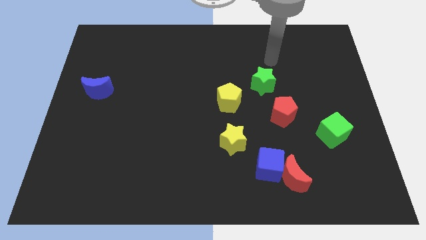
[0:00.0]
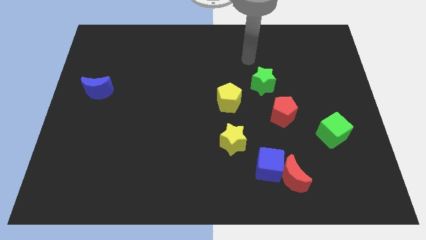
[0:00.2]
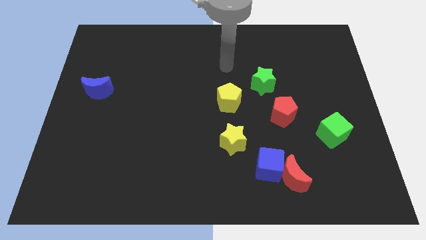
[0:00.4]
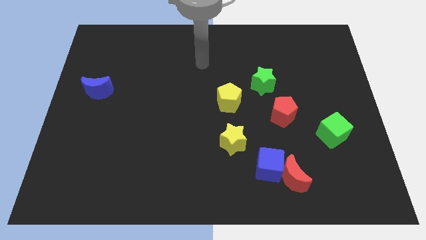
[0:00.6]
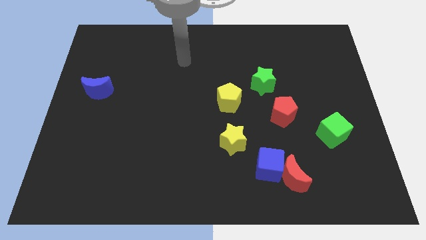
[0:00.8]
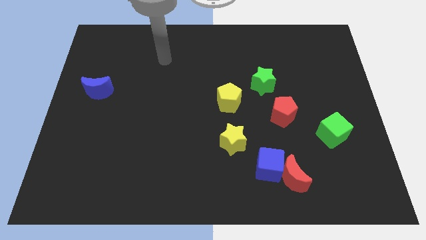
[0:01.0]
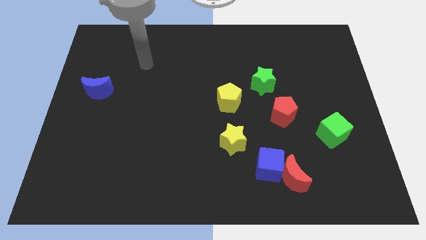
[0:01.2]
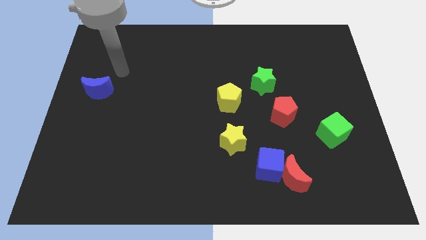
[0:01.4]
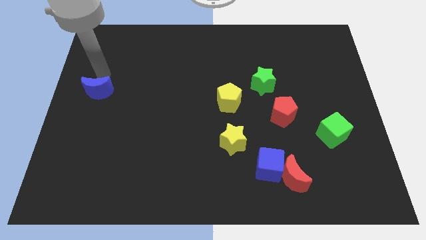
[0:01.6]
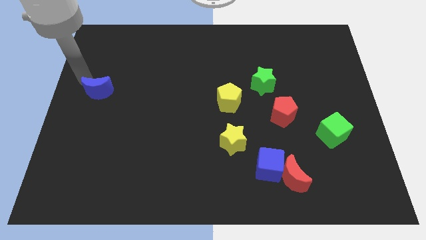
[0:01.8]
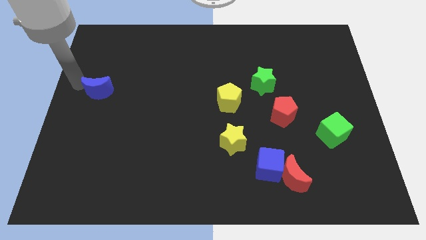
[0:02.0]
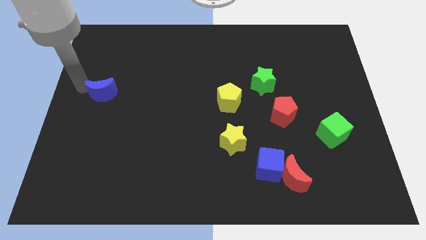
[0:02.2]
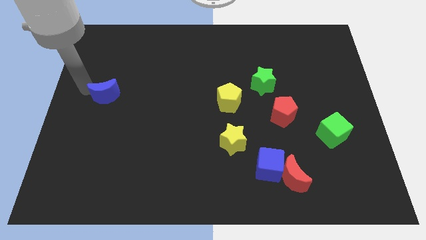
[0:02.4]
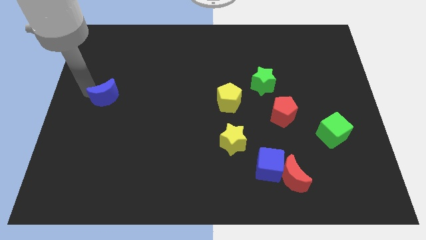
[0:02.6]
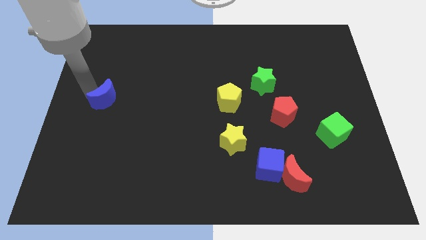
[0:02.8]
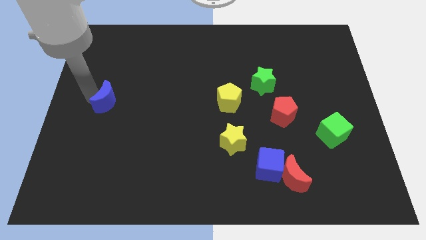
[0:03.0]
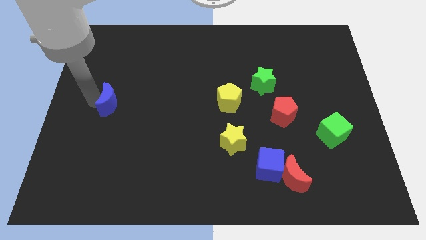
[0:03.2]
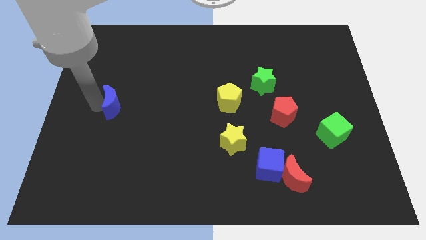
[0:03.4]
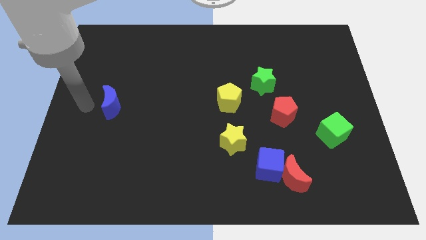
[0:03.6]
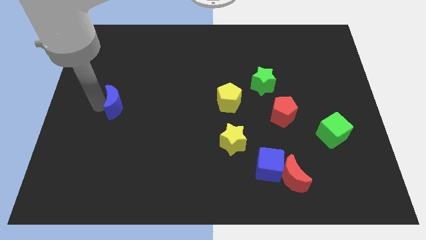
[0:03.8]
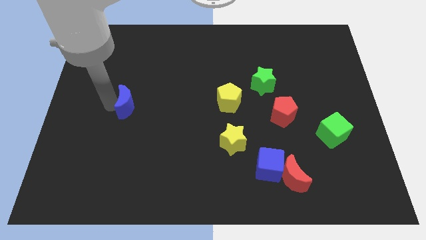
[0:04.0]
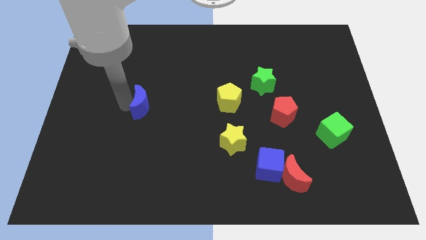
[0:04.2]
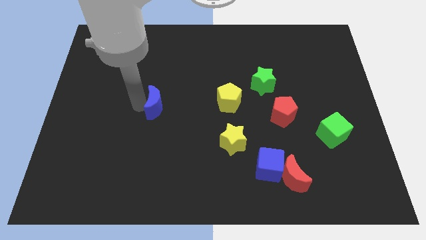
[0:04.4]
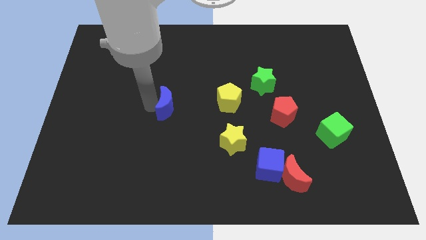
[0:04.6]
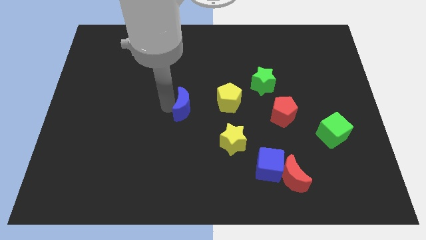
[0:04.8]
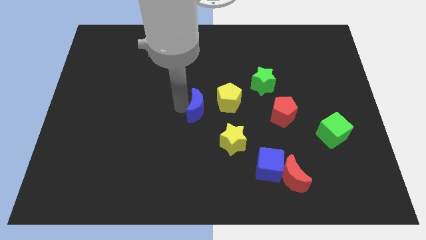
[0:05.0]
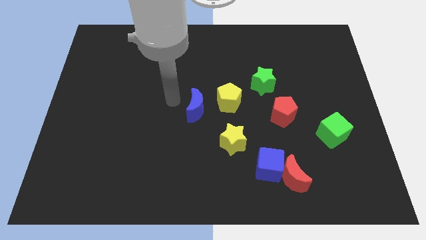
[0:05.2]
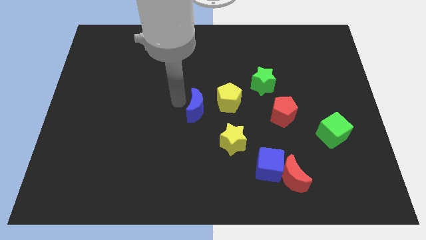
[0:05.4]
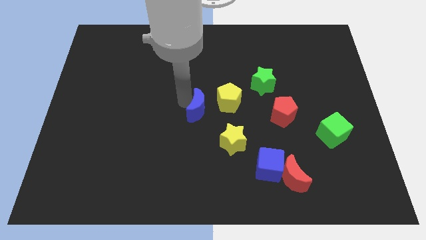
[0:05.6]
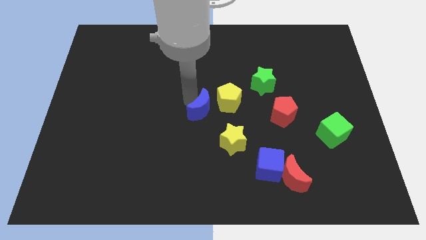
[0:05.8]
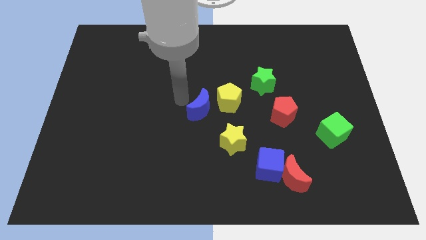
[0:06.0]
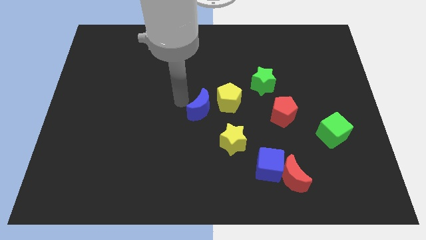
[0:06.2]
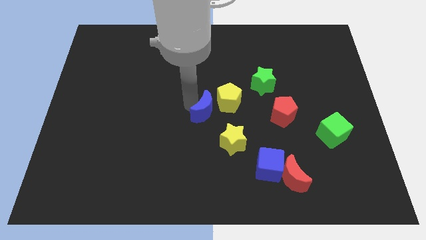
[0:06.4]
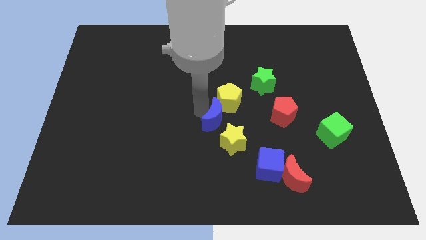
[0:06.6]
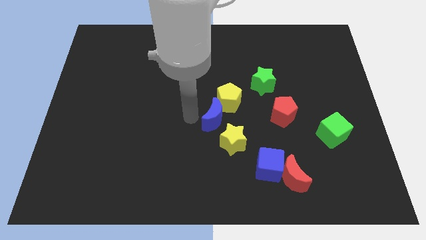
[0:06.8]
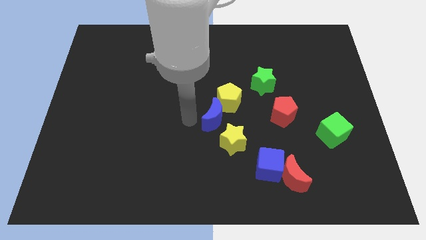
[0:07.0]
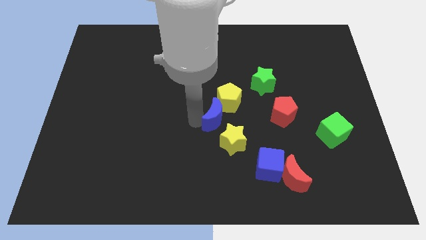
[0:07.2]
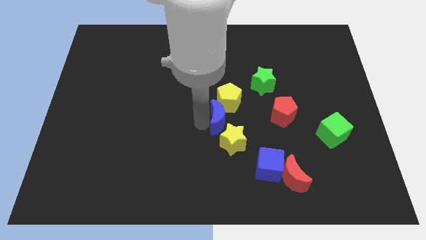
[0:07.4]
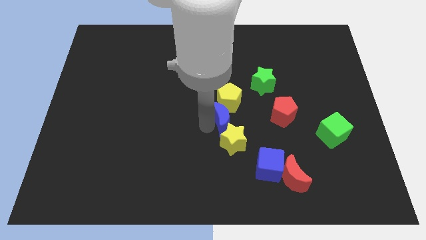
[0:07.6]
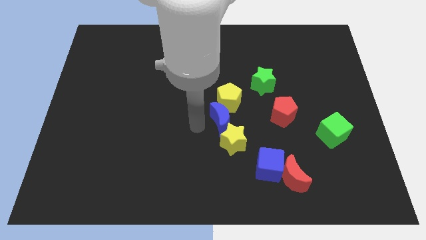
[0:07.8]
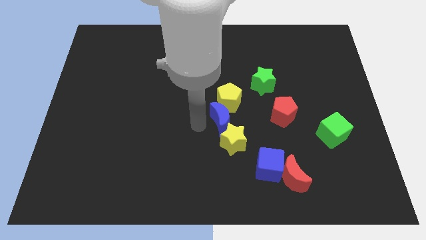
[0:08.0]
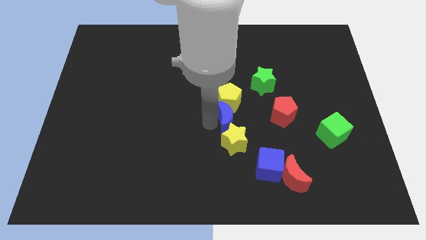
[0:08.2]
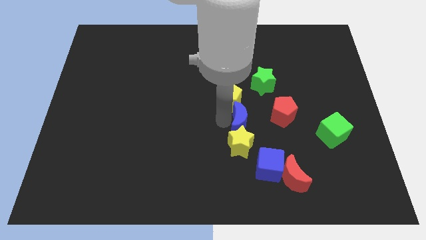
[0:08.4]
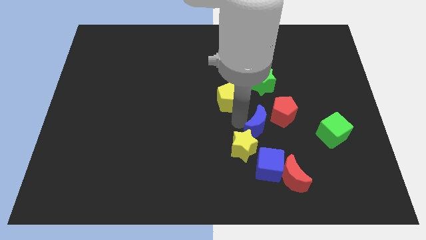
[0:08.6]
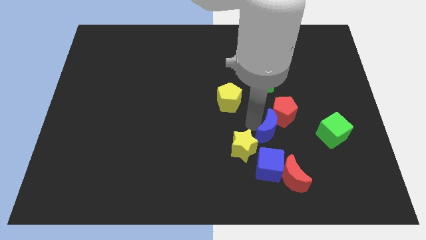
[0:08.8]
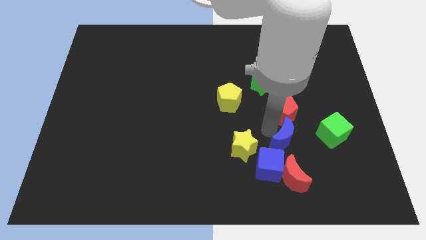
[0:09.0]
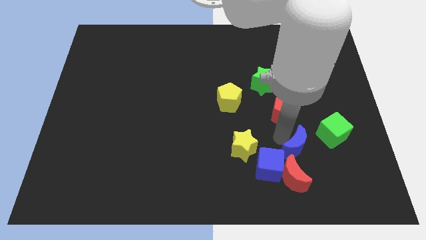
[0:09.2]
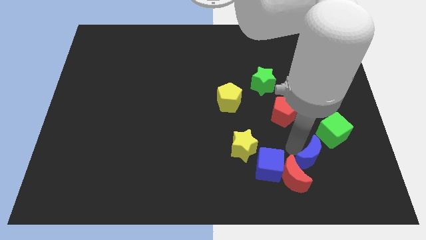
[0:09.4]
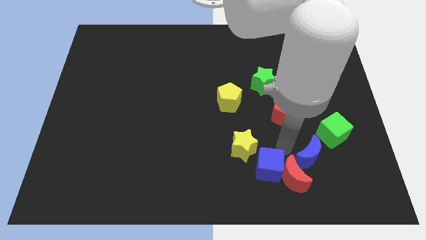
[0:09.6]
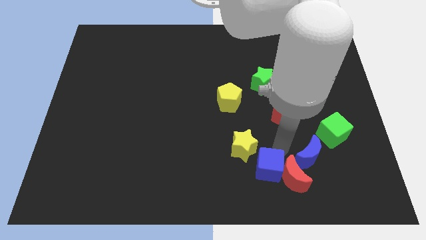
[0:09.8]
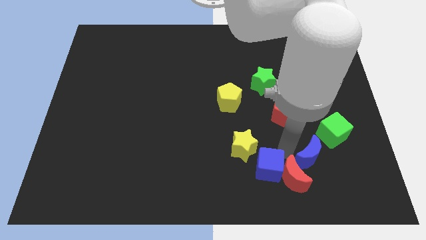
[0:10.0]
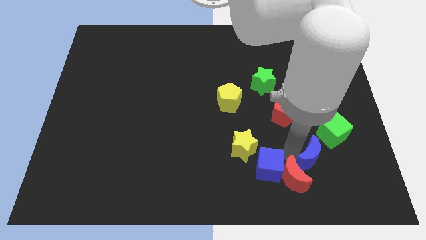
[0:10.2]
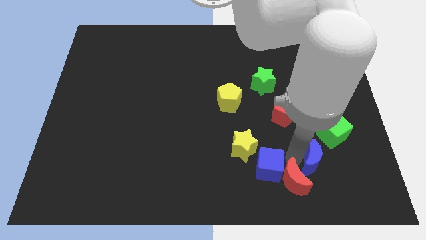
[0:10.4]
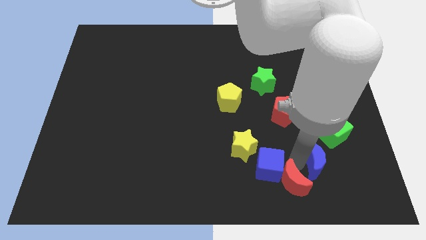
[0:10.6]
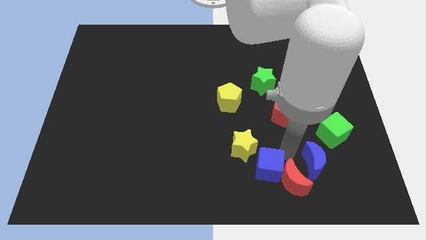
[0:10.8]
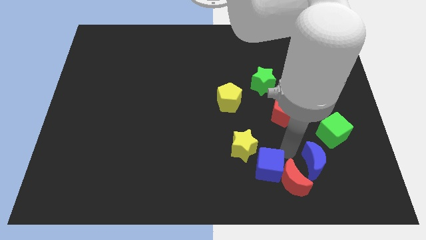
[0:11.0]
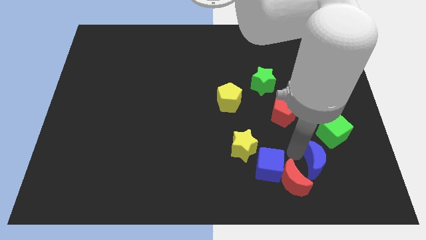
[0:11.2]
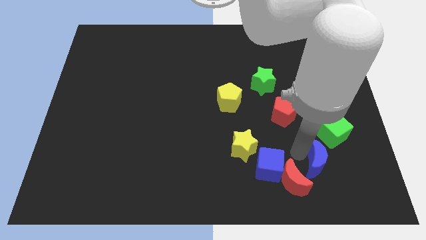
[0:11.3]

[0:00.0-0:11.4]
push the blue moon to the bottom side of the green cube

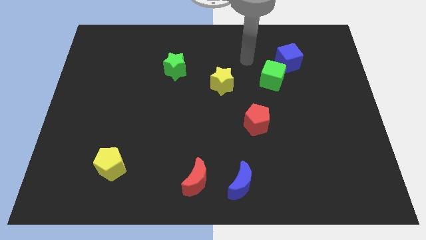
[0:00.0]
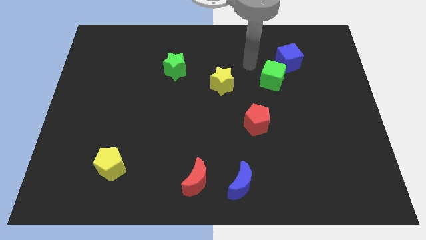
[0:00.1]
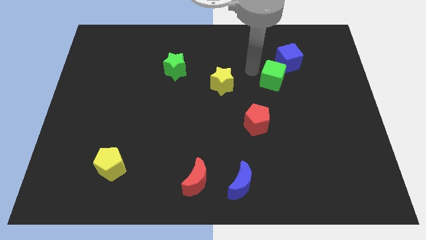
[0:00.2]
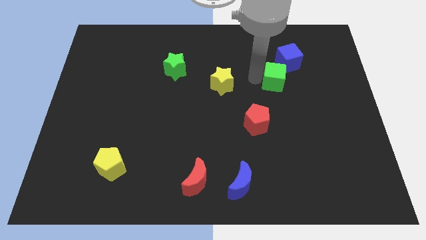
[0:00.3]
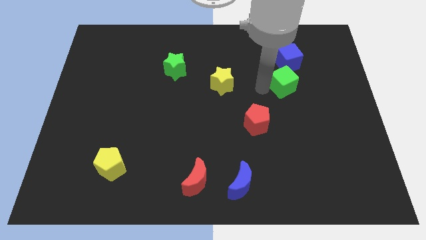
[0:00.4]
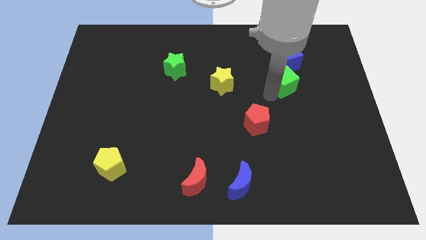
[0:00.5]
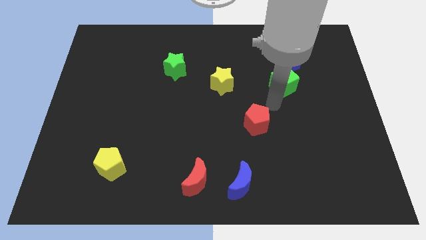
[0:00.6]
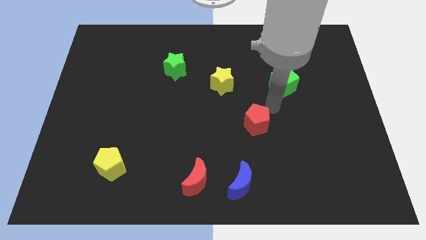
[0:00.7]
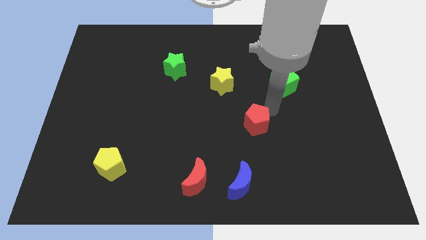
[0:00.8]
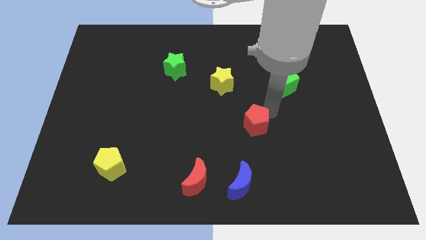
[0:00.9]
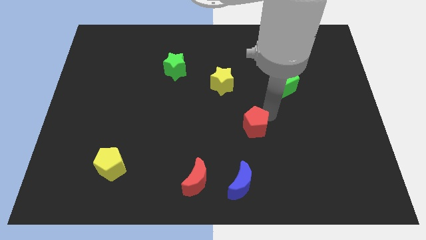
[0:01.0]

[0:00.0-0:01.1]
move the red pentagon to the top of the blue moon

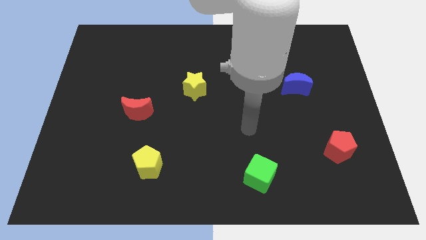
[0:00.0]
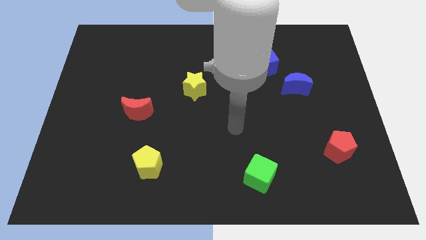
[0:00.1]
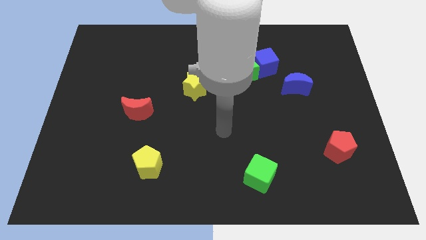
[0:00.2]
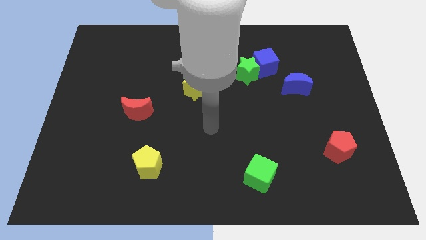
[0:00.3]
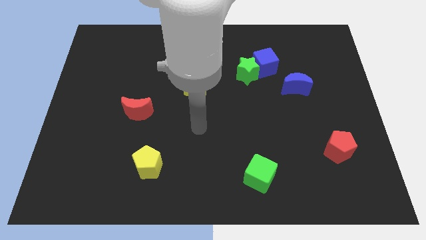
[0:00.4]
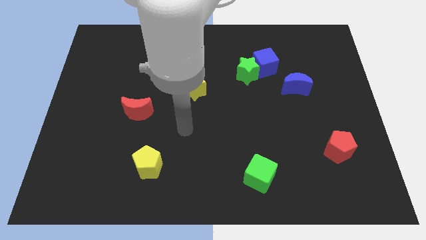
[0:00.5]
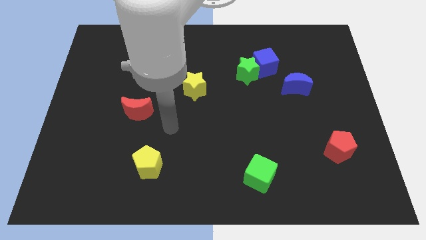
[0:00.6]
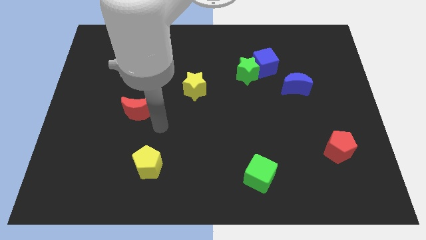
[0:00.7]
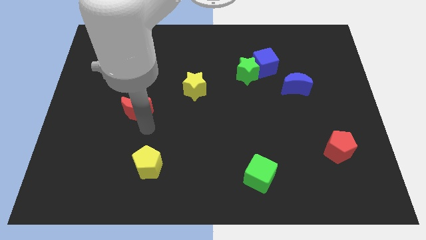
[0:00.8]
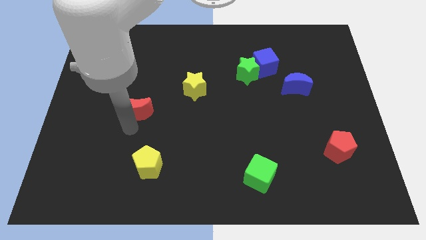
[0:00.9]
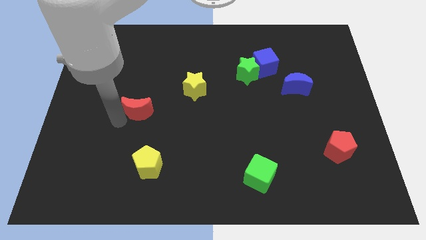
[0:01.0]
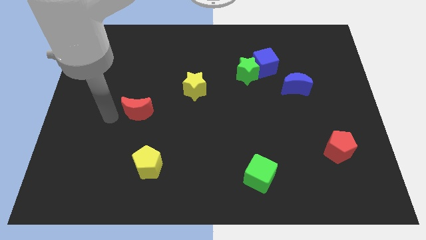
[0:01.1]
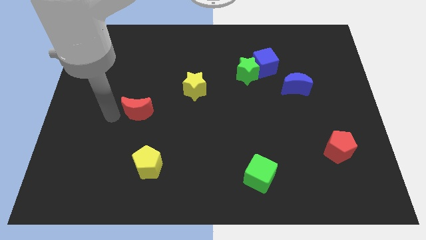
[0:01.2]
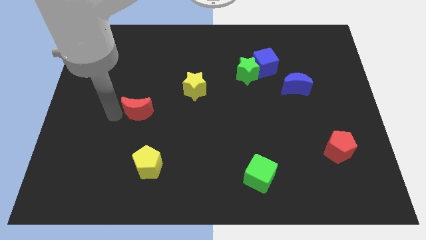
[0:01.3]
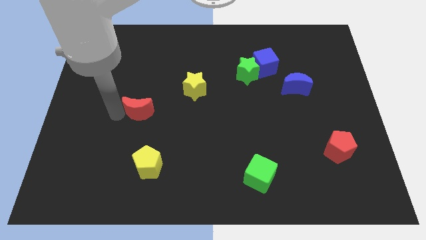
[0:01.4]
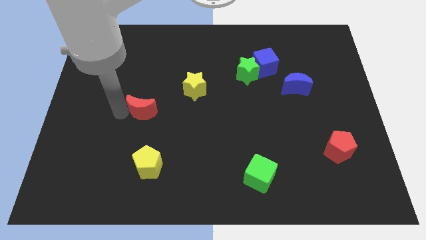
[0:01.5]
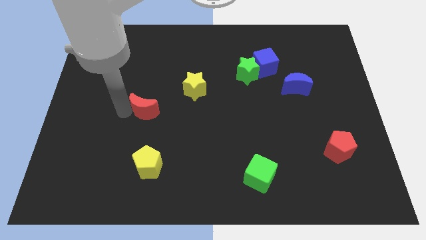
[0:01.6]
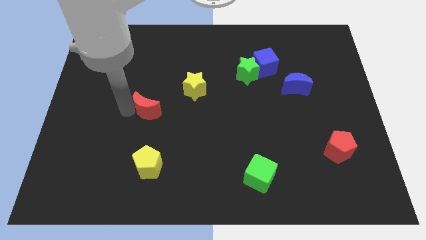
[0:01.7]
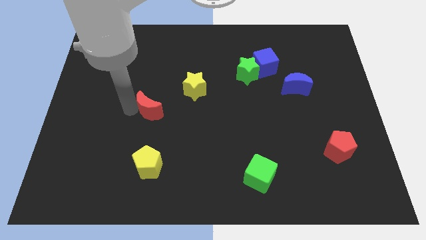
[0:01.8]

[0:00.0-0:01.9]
put the red moon to the bottom left side of the yellow star
